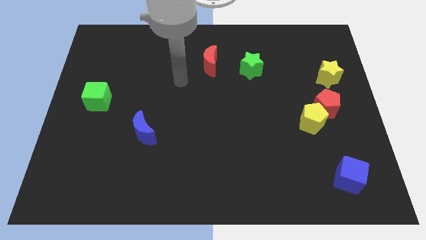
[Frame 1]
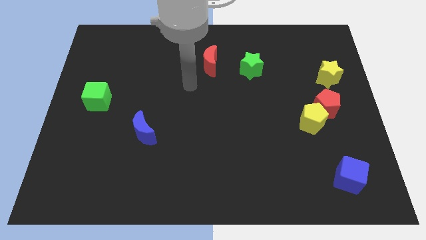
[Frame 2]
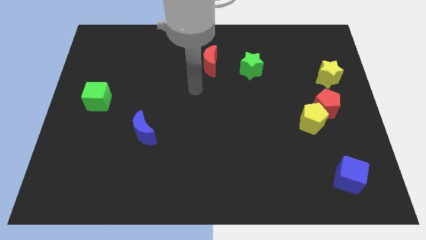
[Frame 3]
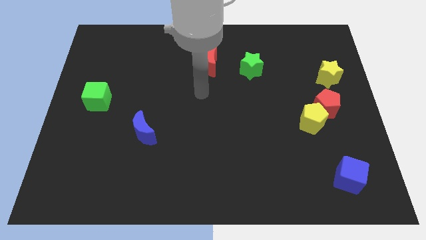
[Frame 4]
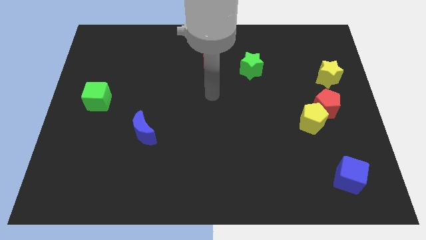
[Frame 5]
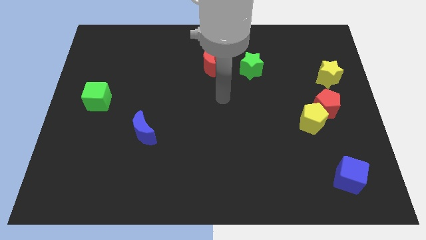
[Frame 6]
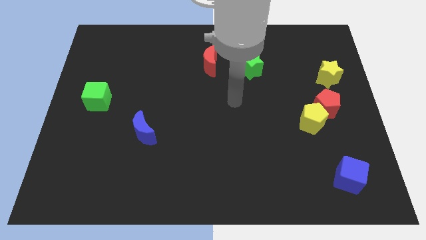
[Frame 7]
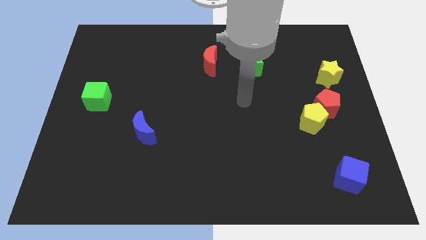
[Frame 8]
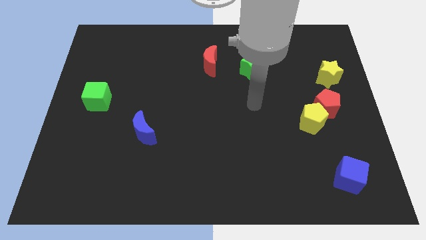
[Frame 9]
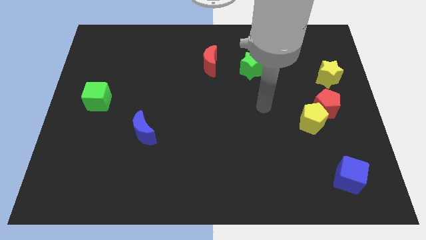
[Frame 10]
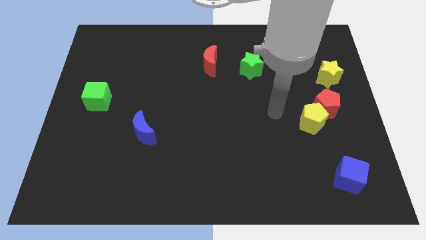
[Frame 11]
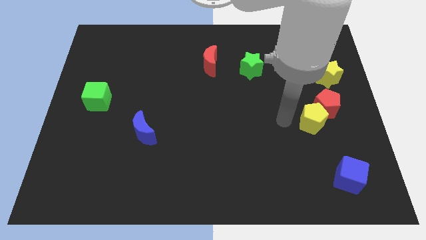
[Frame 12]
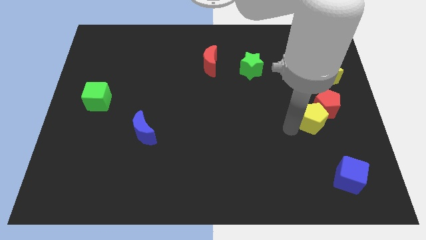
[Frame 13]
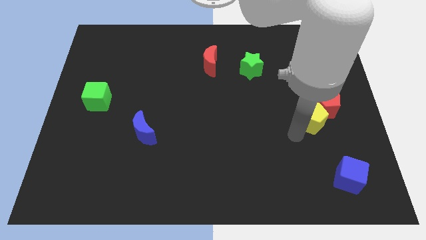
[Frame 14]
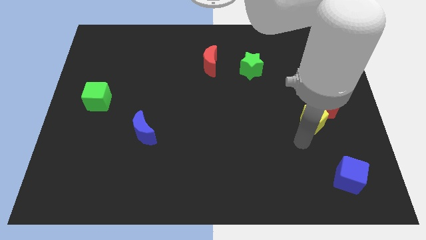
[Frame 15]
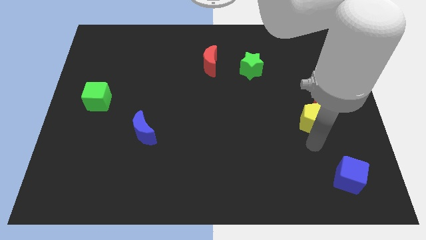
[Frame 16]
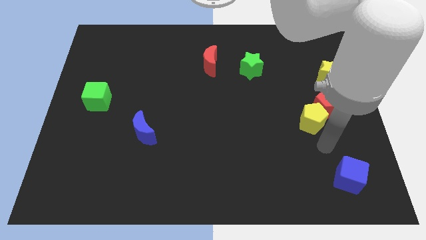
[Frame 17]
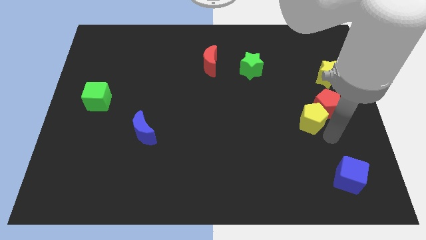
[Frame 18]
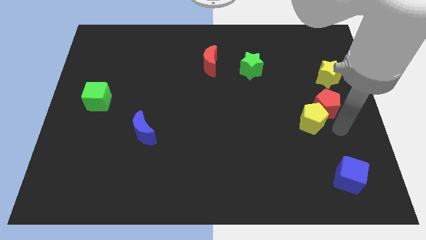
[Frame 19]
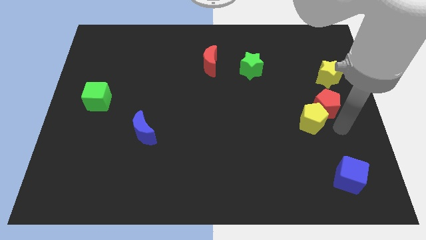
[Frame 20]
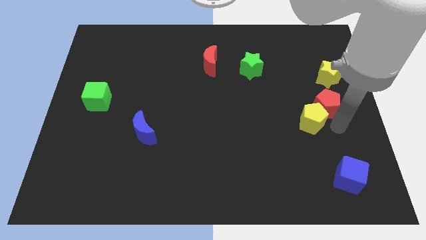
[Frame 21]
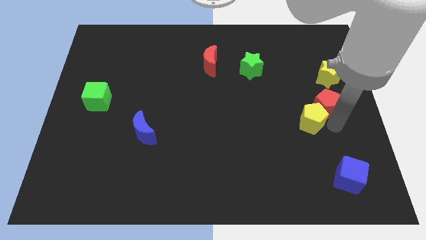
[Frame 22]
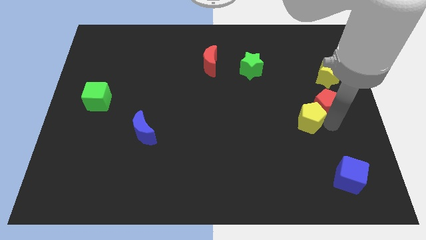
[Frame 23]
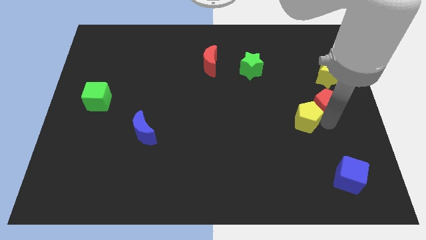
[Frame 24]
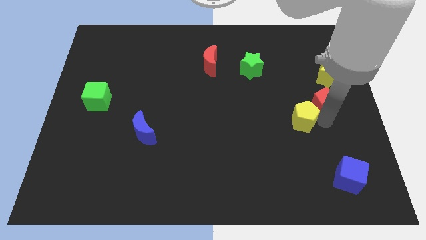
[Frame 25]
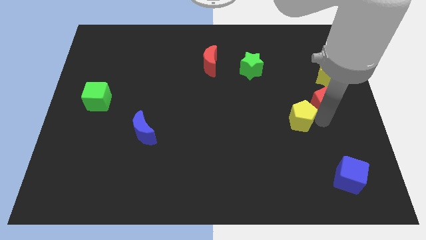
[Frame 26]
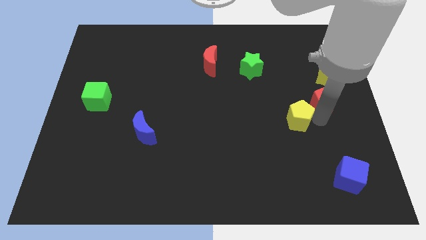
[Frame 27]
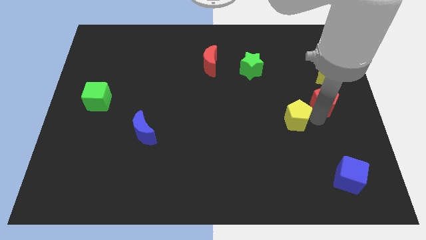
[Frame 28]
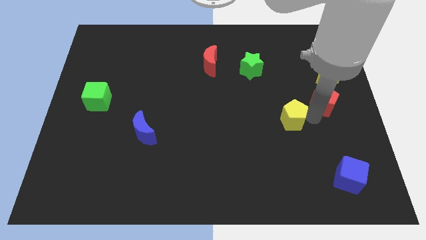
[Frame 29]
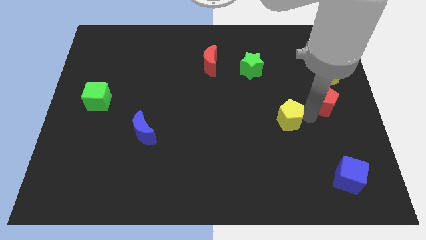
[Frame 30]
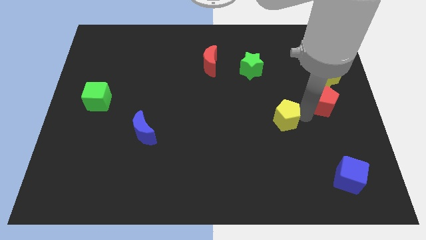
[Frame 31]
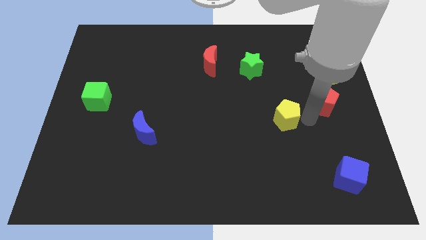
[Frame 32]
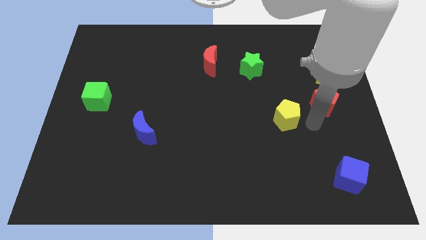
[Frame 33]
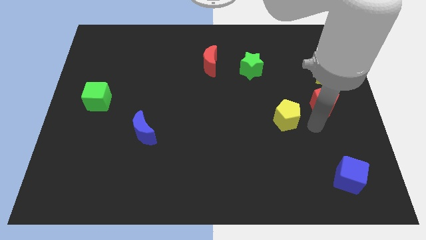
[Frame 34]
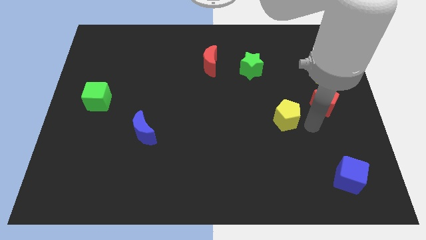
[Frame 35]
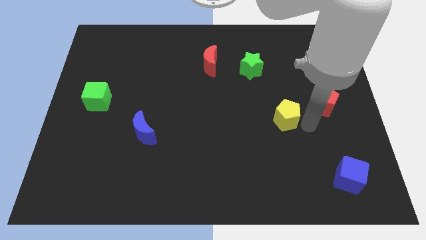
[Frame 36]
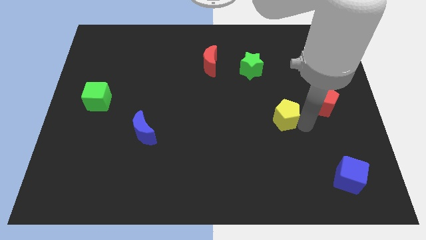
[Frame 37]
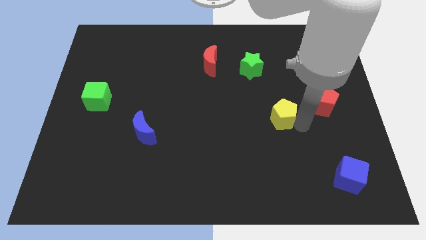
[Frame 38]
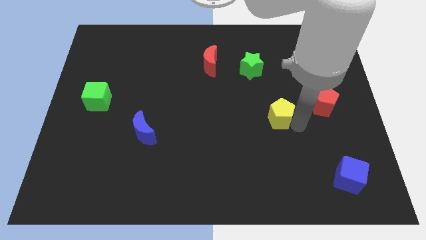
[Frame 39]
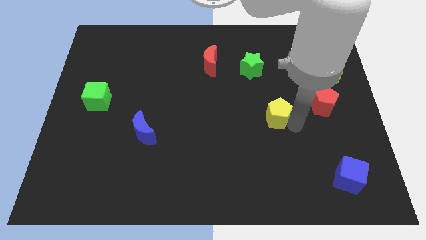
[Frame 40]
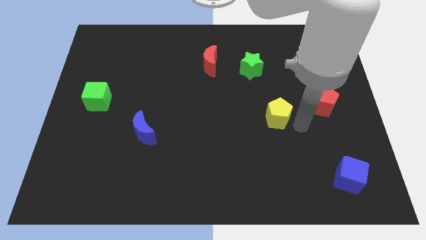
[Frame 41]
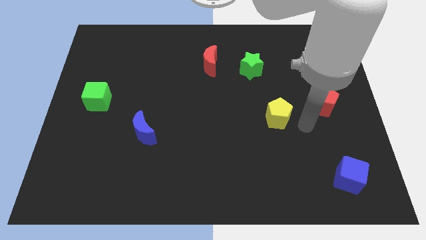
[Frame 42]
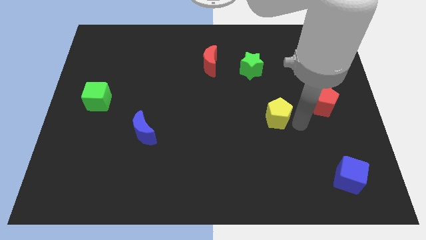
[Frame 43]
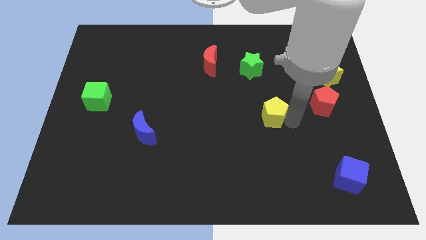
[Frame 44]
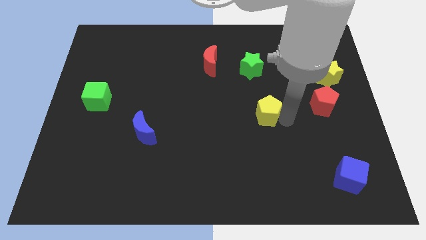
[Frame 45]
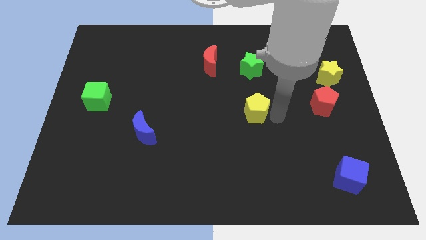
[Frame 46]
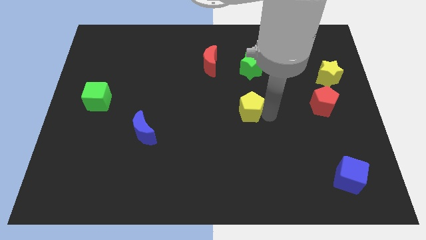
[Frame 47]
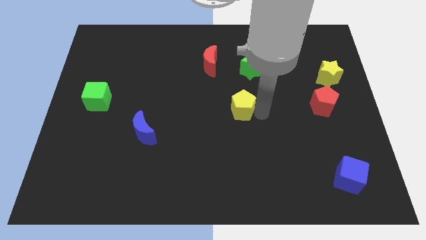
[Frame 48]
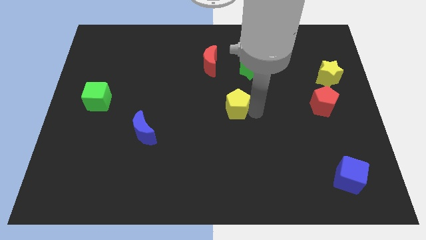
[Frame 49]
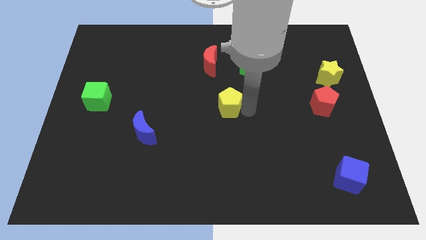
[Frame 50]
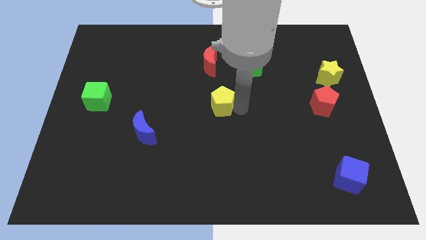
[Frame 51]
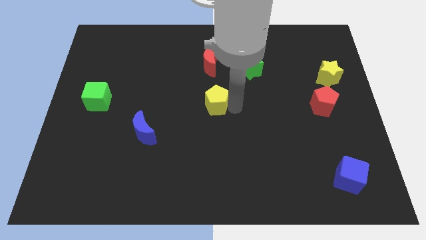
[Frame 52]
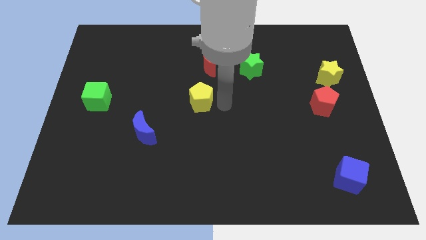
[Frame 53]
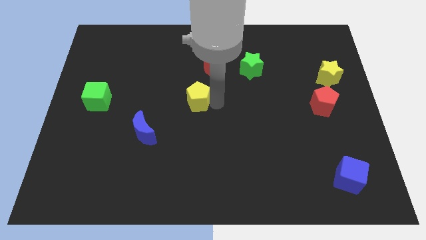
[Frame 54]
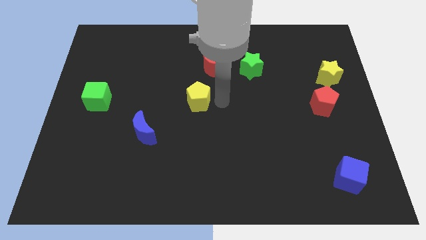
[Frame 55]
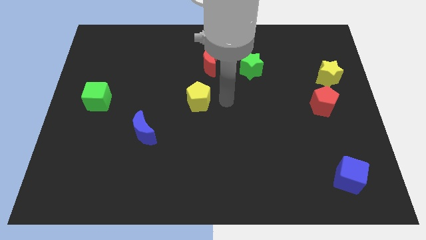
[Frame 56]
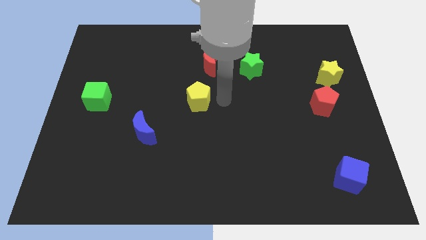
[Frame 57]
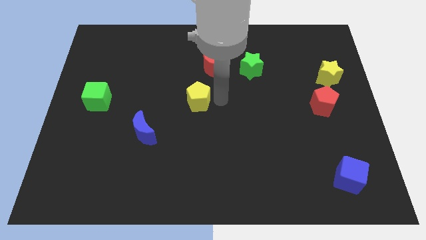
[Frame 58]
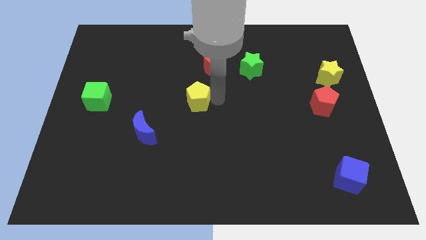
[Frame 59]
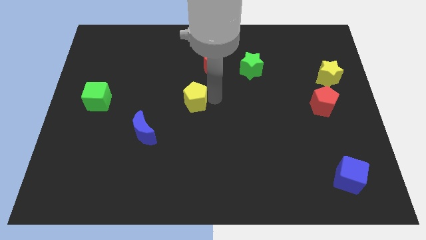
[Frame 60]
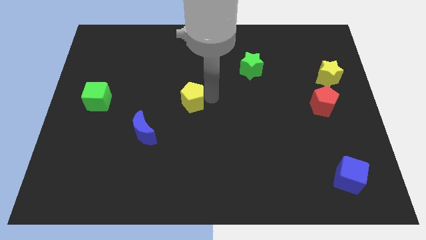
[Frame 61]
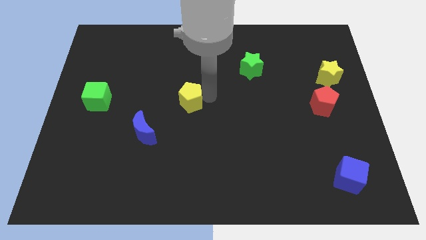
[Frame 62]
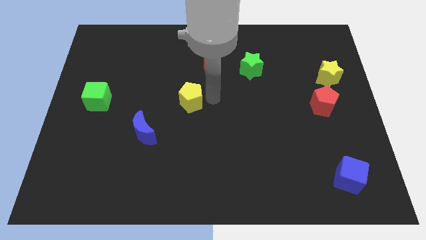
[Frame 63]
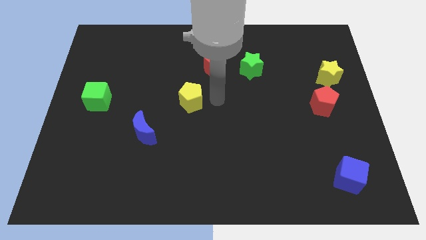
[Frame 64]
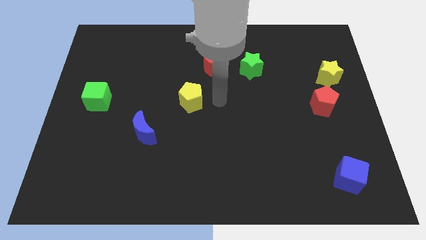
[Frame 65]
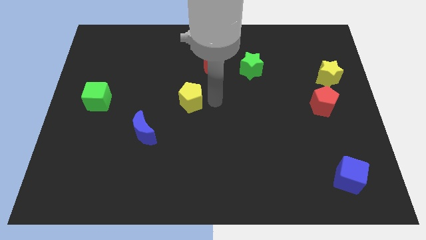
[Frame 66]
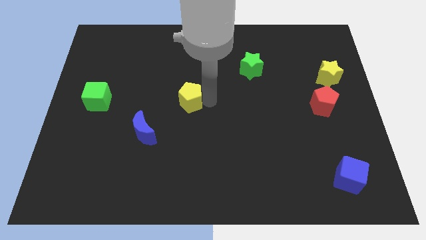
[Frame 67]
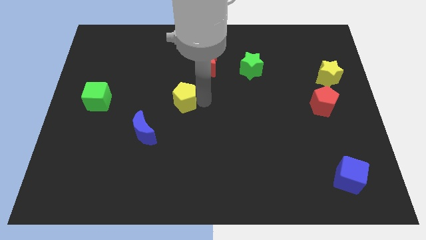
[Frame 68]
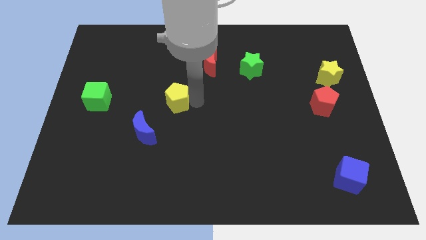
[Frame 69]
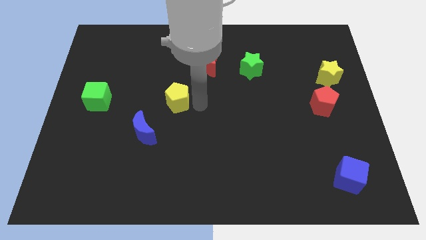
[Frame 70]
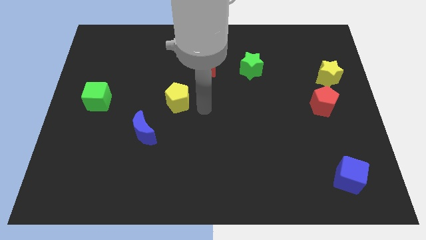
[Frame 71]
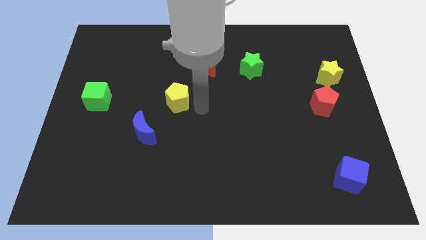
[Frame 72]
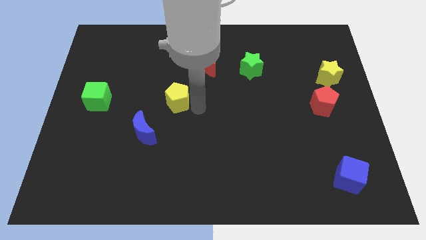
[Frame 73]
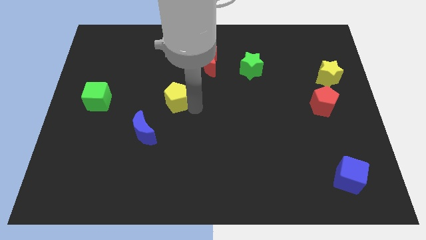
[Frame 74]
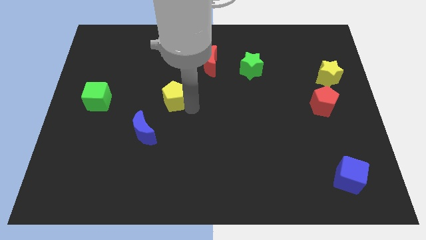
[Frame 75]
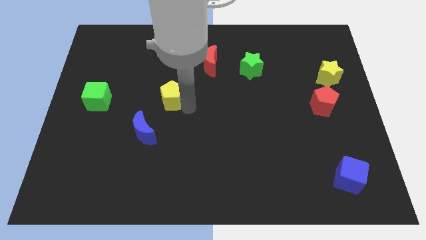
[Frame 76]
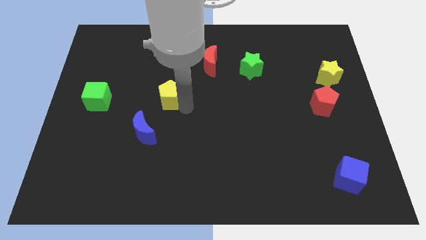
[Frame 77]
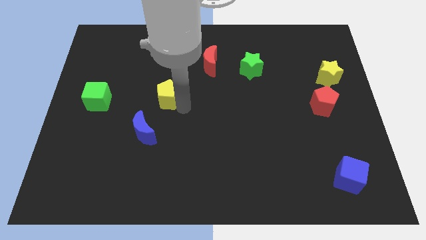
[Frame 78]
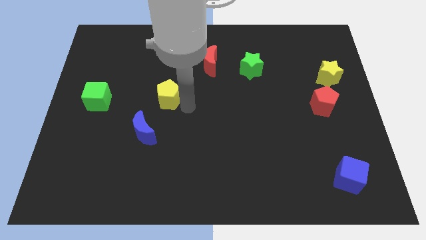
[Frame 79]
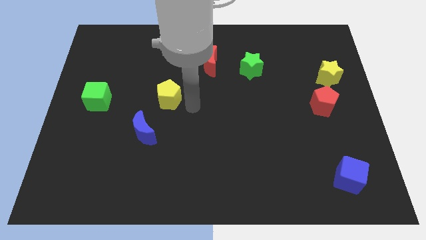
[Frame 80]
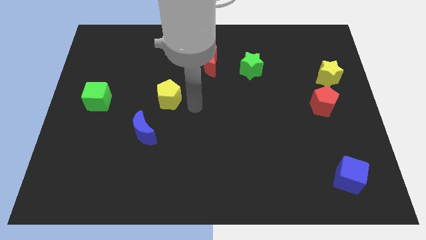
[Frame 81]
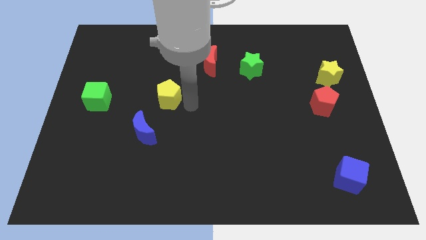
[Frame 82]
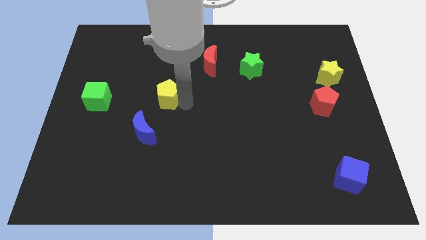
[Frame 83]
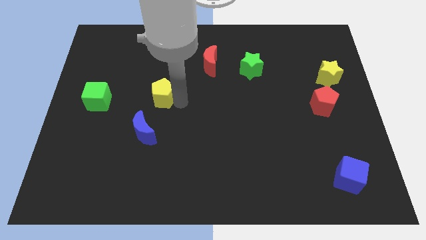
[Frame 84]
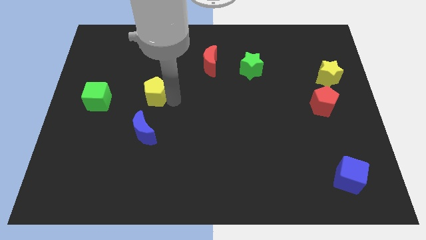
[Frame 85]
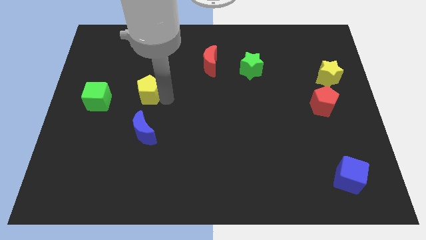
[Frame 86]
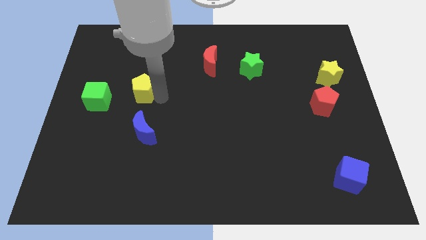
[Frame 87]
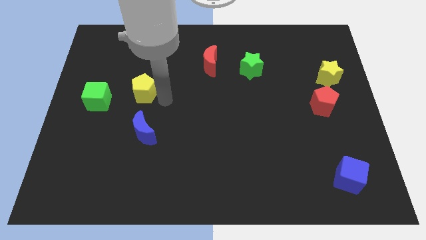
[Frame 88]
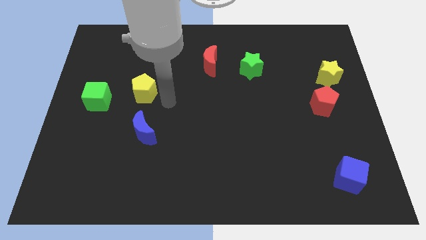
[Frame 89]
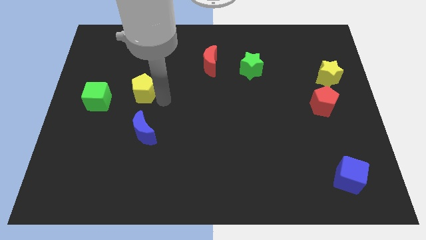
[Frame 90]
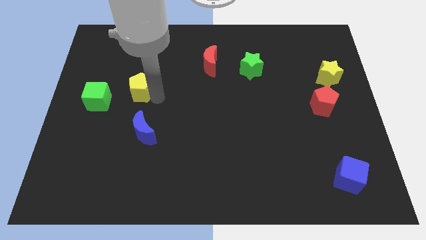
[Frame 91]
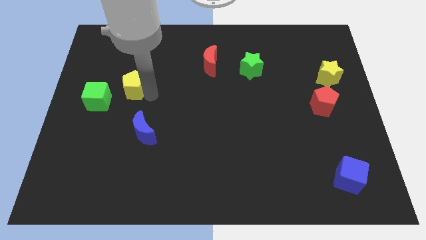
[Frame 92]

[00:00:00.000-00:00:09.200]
put the yellow pentagon to the top right of the green cube
